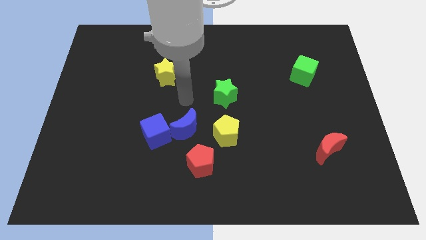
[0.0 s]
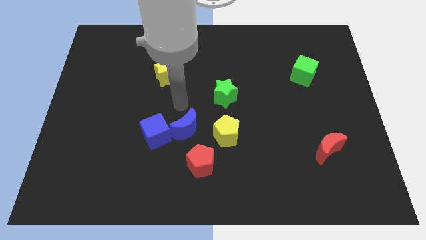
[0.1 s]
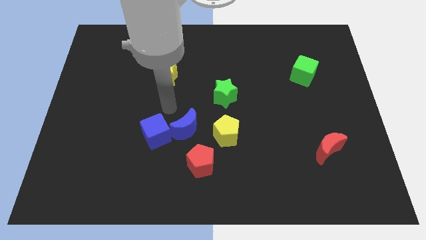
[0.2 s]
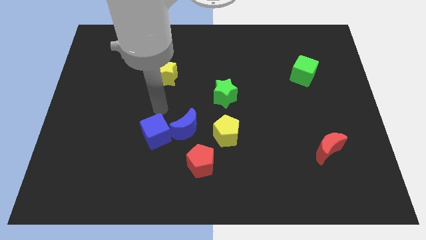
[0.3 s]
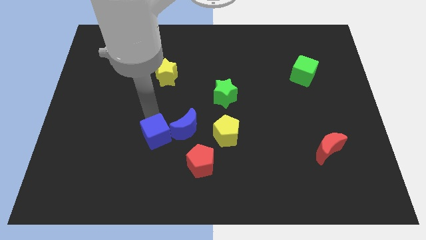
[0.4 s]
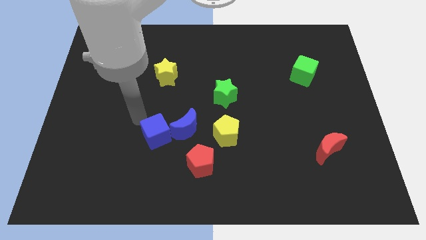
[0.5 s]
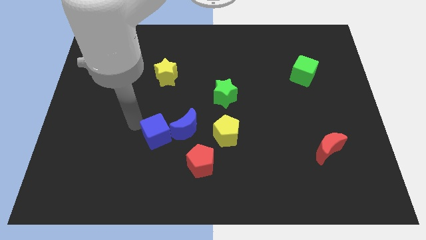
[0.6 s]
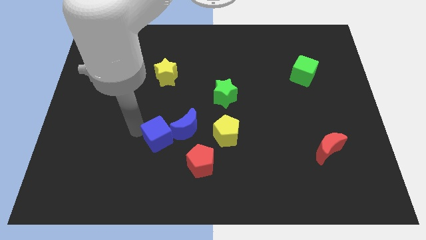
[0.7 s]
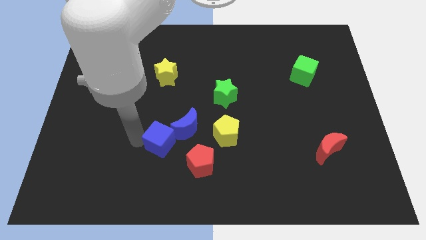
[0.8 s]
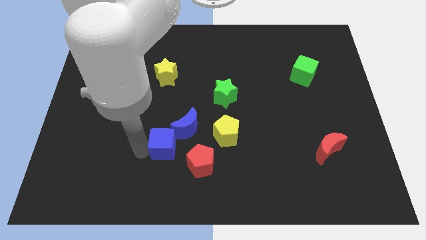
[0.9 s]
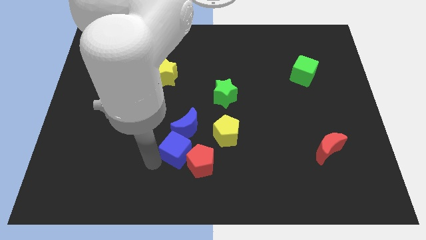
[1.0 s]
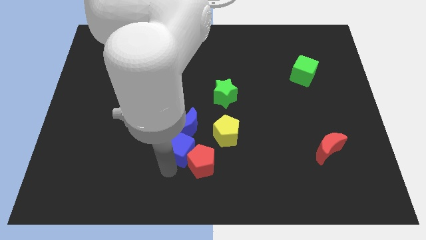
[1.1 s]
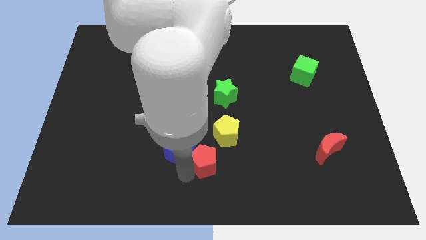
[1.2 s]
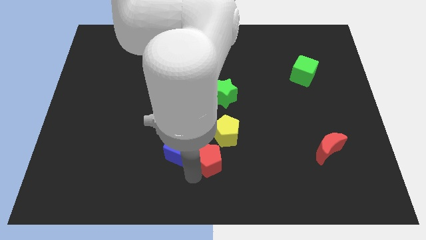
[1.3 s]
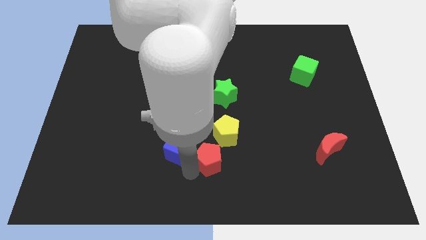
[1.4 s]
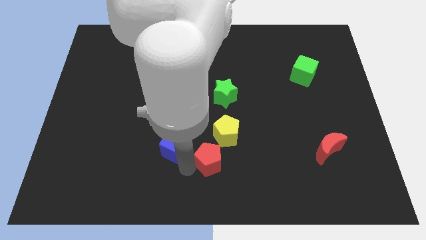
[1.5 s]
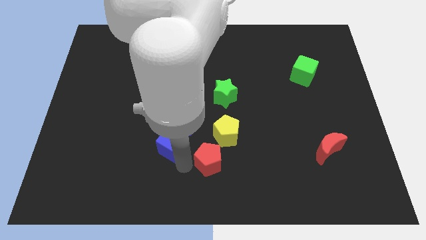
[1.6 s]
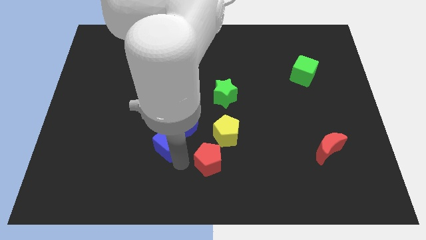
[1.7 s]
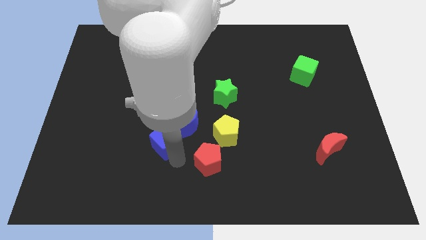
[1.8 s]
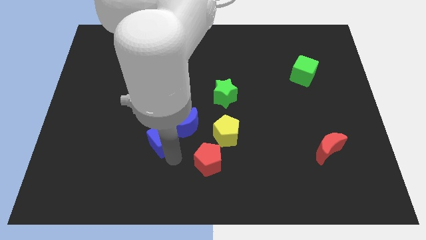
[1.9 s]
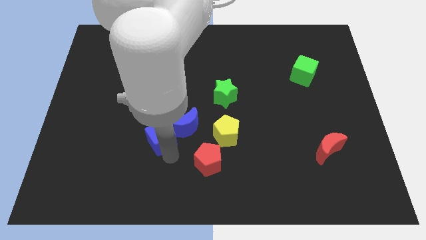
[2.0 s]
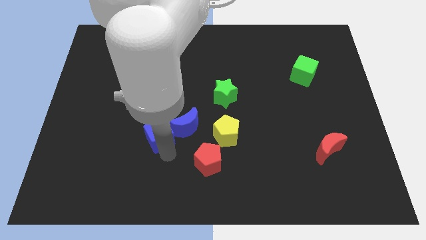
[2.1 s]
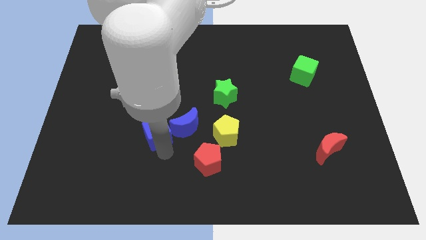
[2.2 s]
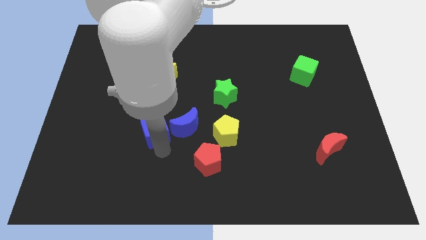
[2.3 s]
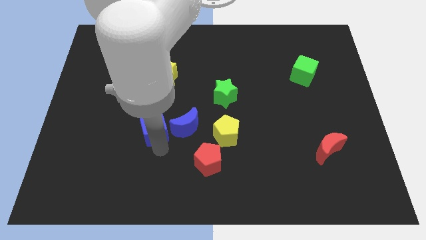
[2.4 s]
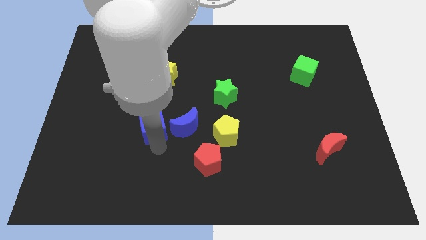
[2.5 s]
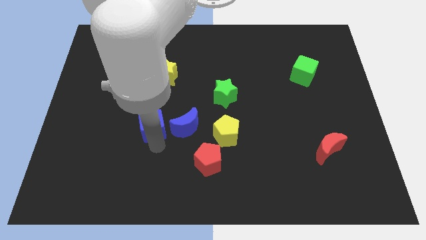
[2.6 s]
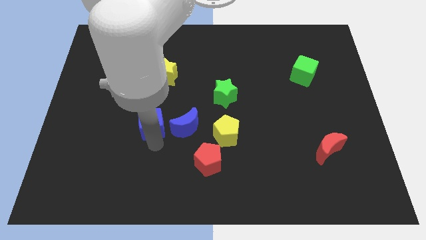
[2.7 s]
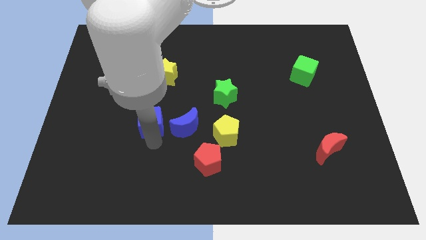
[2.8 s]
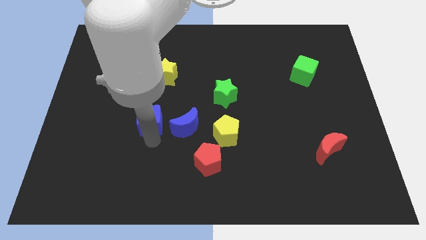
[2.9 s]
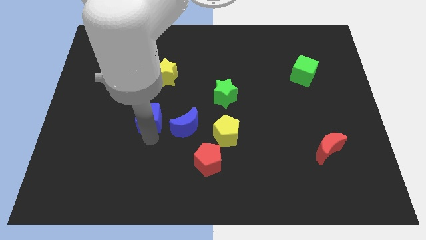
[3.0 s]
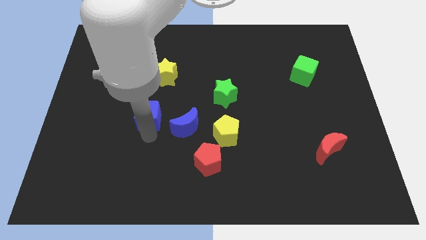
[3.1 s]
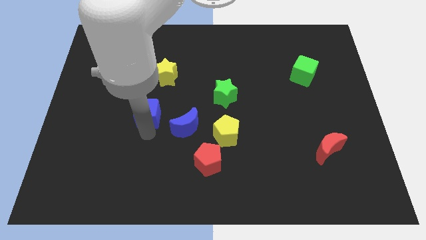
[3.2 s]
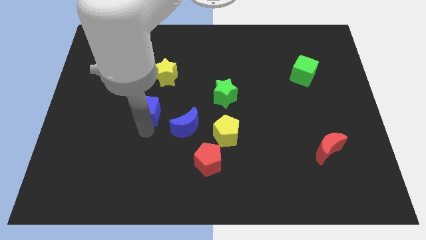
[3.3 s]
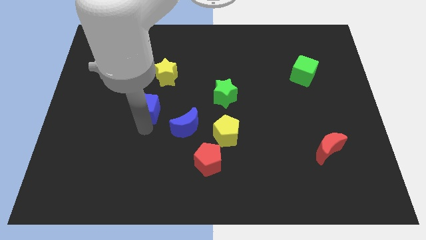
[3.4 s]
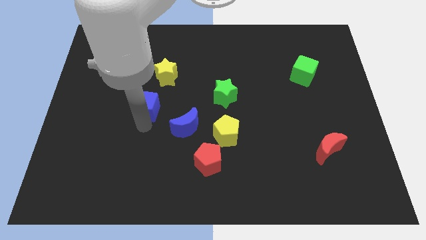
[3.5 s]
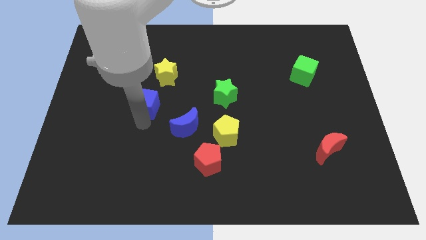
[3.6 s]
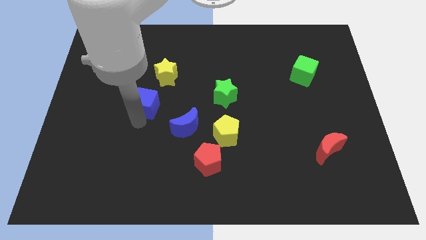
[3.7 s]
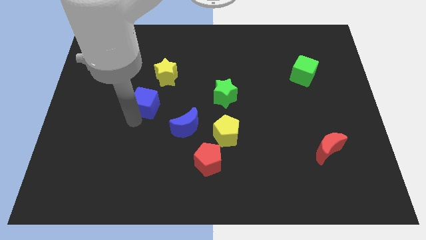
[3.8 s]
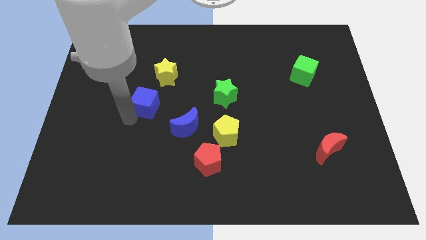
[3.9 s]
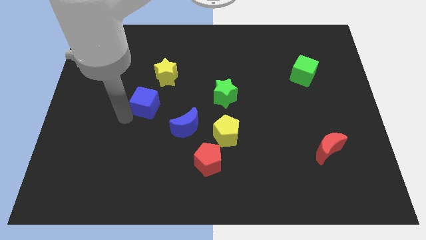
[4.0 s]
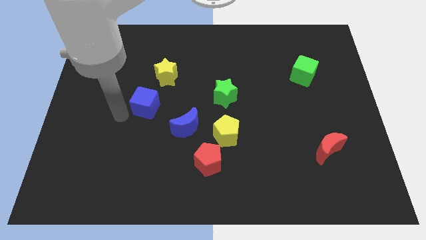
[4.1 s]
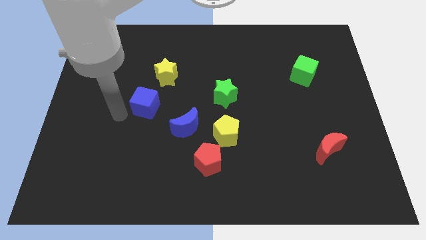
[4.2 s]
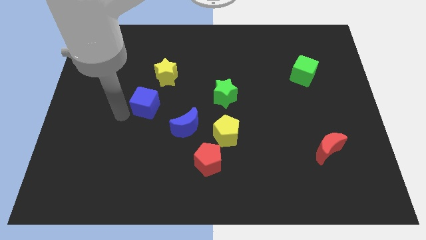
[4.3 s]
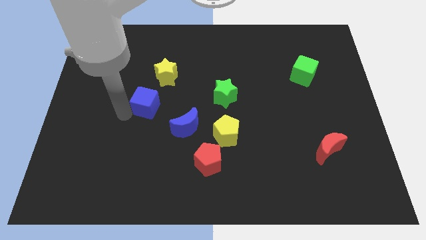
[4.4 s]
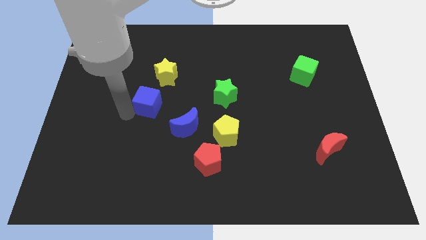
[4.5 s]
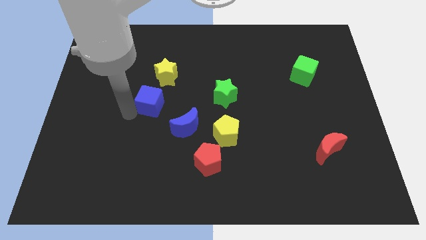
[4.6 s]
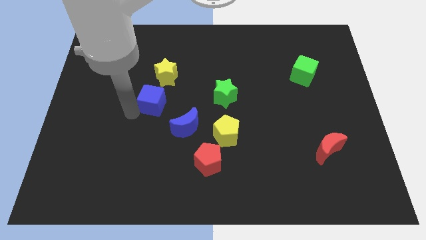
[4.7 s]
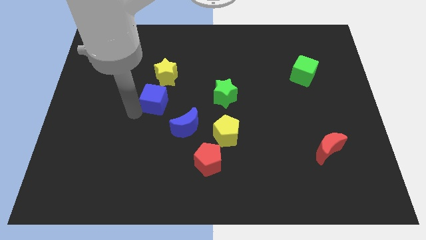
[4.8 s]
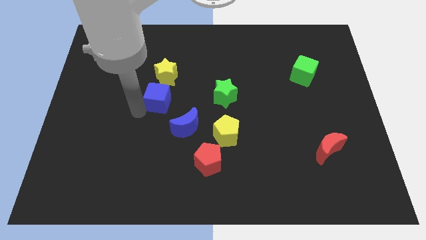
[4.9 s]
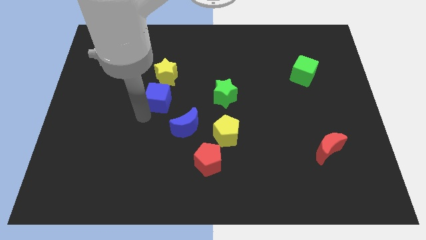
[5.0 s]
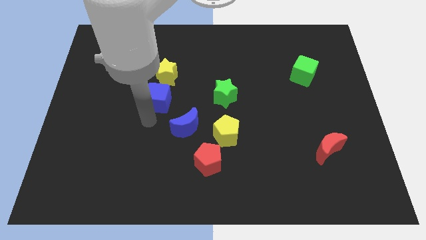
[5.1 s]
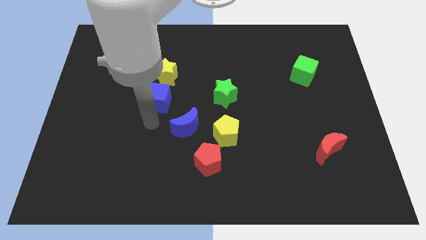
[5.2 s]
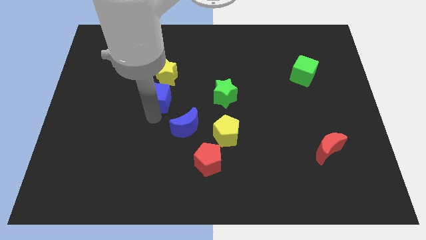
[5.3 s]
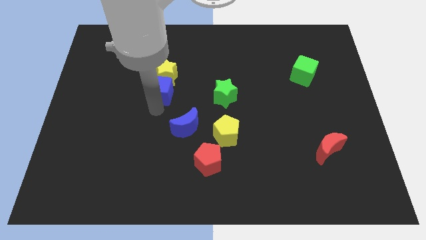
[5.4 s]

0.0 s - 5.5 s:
move the blue cube close to the yellow star

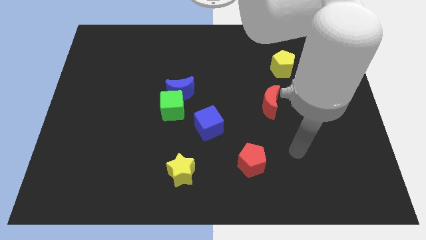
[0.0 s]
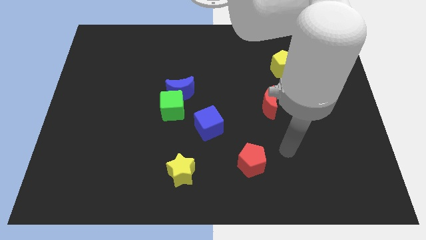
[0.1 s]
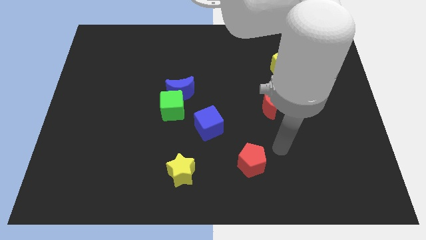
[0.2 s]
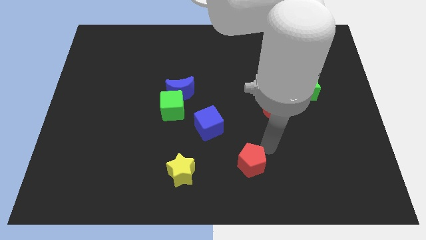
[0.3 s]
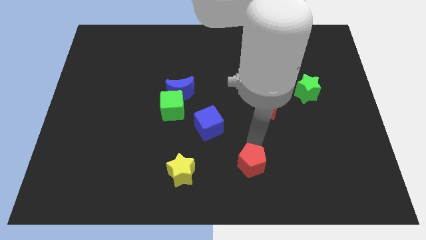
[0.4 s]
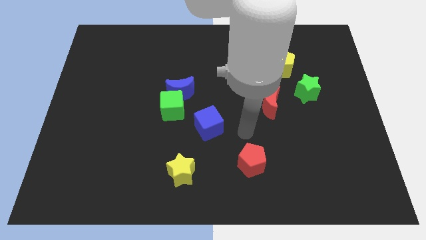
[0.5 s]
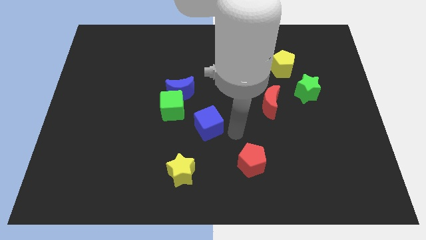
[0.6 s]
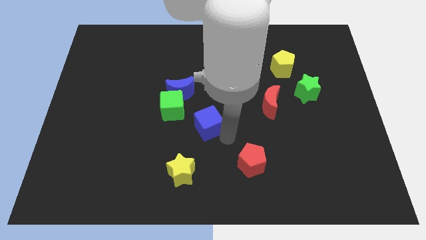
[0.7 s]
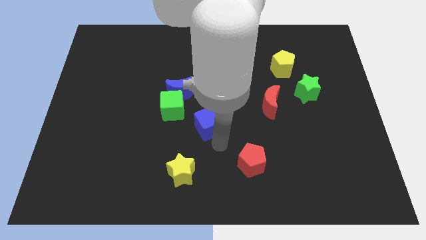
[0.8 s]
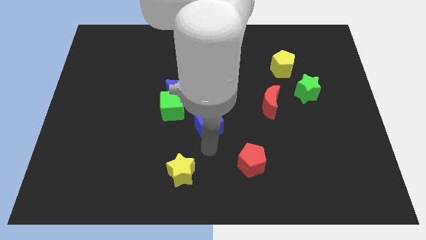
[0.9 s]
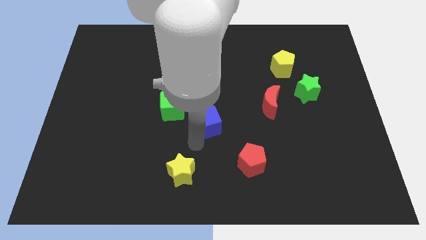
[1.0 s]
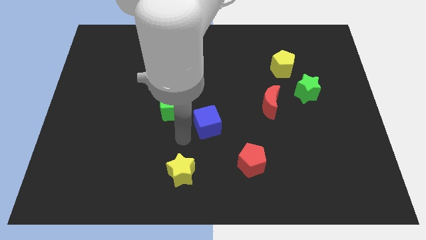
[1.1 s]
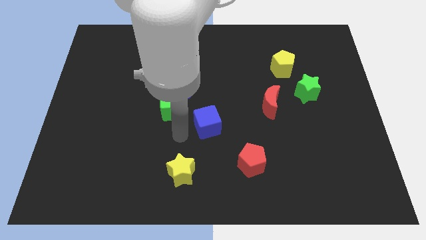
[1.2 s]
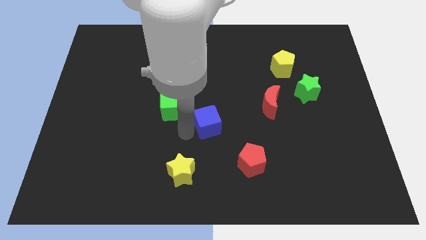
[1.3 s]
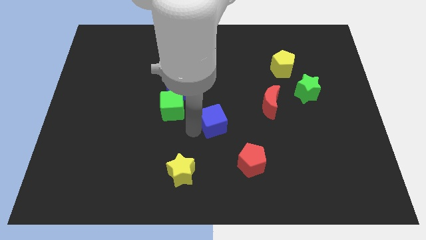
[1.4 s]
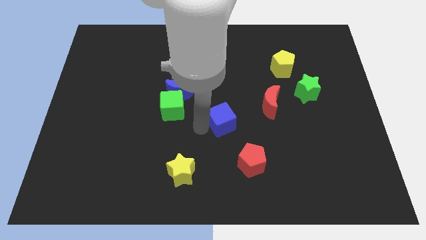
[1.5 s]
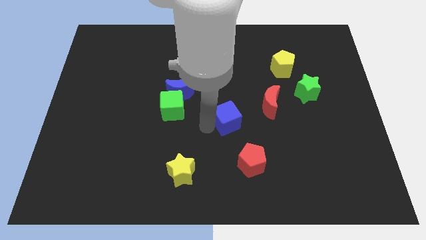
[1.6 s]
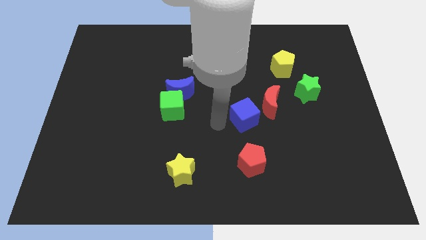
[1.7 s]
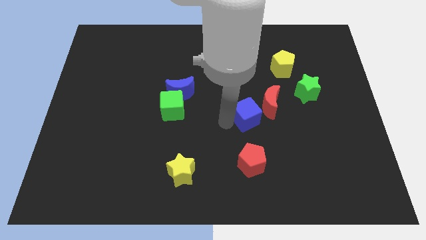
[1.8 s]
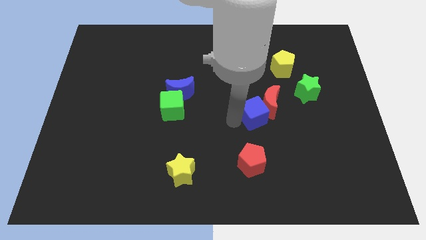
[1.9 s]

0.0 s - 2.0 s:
put the blue cube close to the red moon

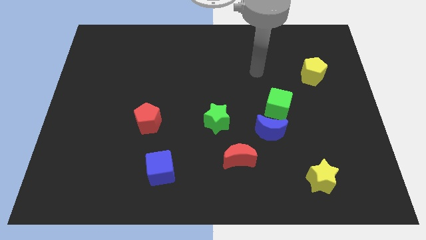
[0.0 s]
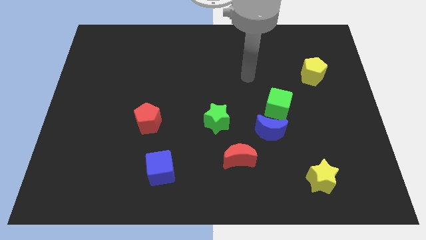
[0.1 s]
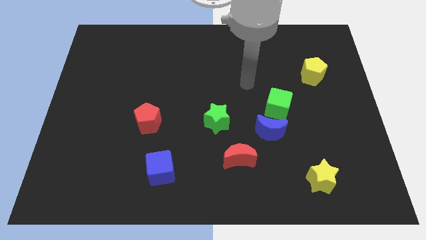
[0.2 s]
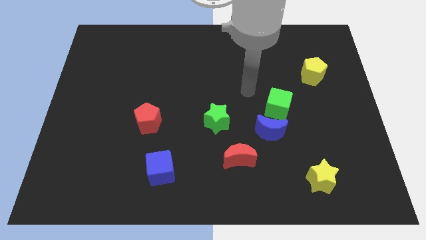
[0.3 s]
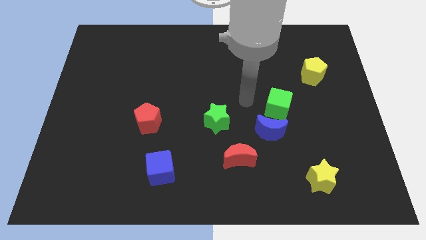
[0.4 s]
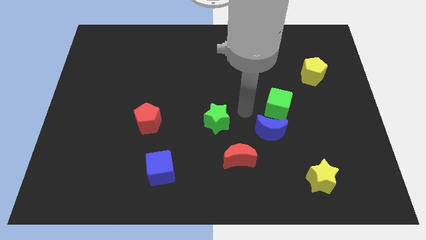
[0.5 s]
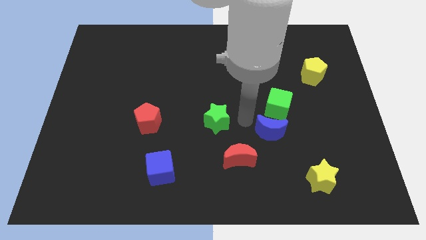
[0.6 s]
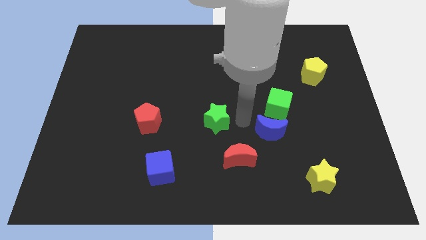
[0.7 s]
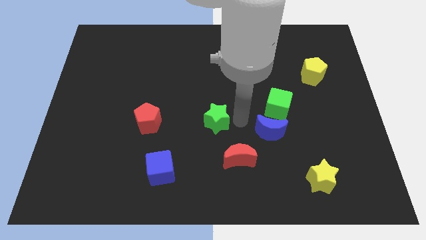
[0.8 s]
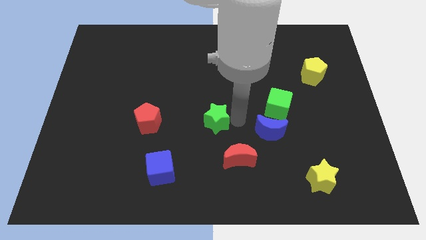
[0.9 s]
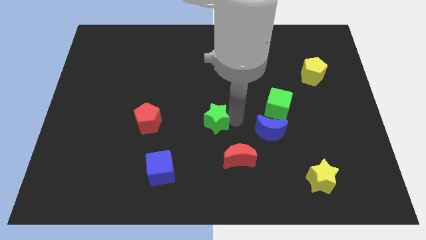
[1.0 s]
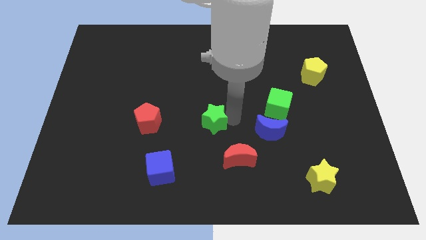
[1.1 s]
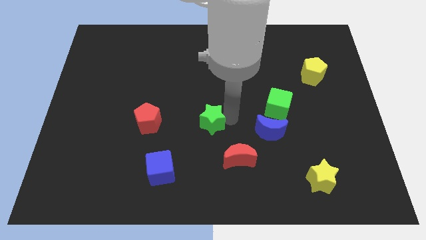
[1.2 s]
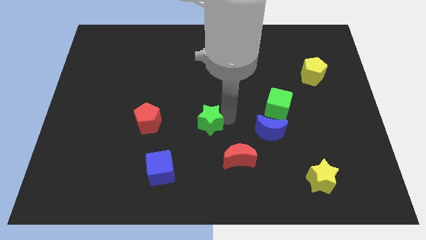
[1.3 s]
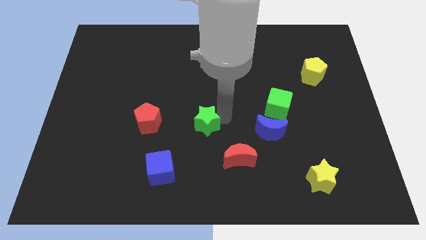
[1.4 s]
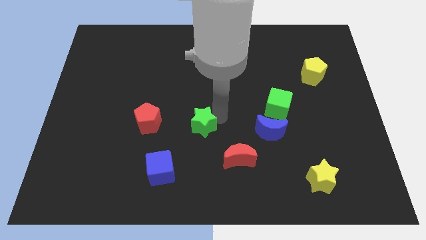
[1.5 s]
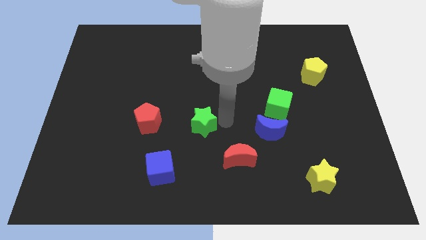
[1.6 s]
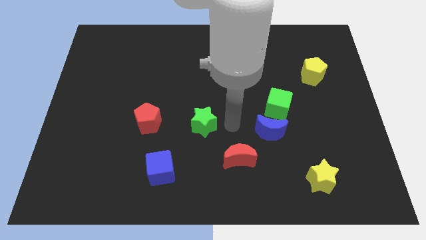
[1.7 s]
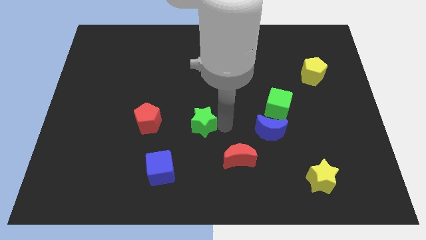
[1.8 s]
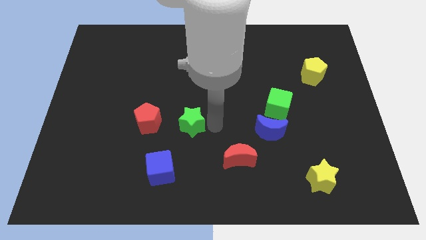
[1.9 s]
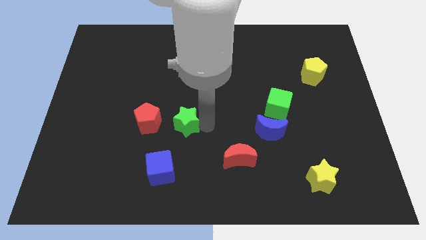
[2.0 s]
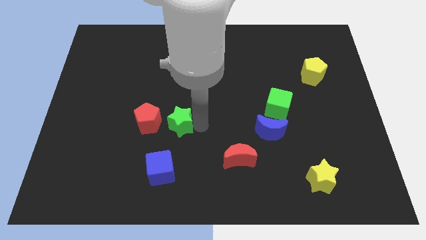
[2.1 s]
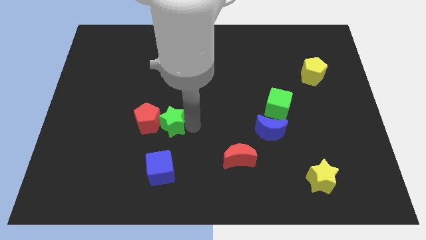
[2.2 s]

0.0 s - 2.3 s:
put the green star to the red pentagon
